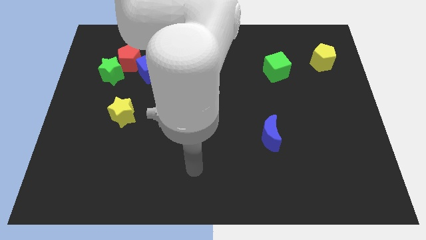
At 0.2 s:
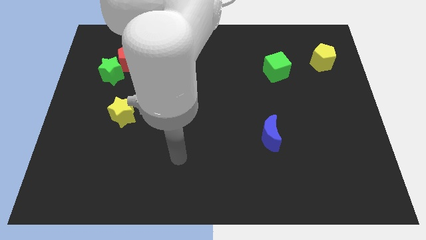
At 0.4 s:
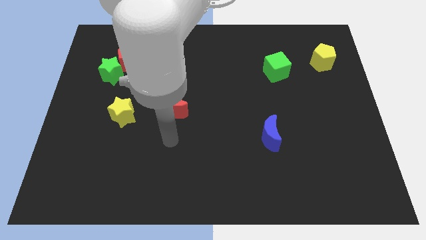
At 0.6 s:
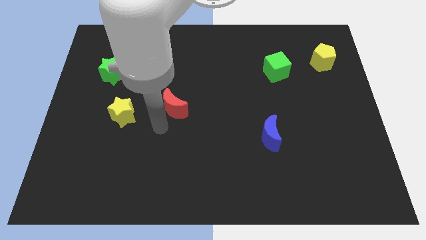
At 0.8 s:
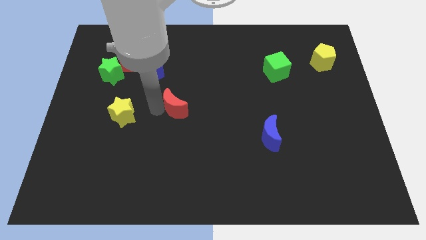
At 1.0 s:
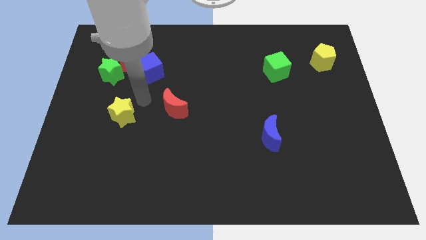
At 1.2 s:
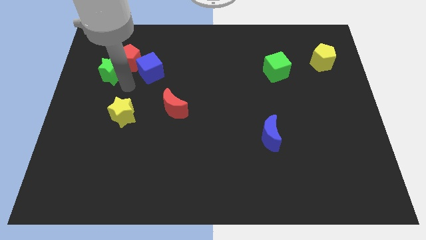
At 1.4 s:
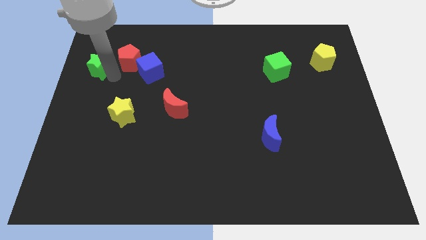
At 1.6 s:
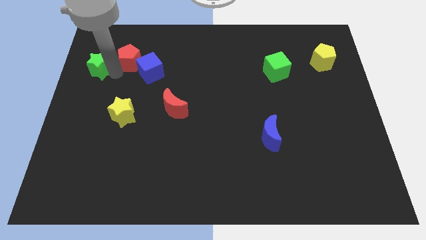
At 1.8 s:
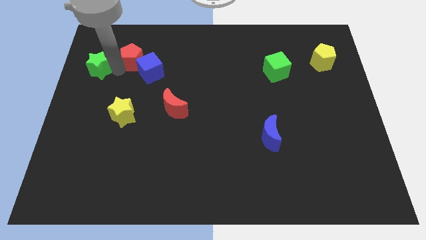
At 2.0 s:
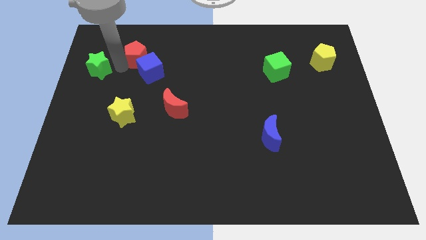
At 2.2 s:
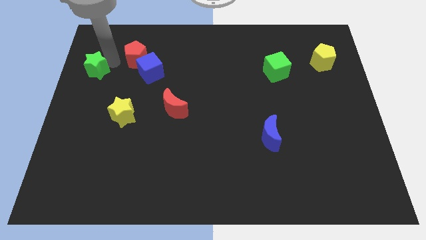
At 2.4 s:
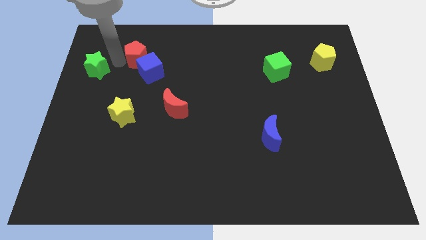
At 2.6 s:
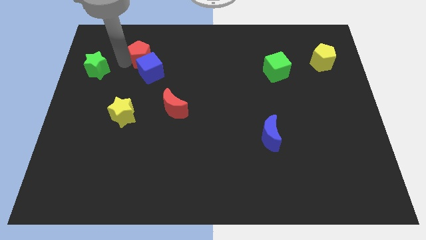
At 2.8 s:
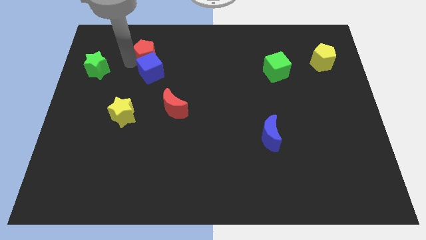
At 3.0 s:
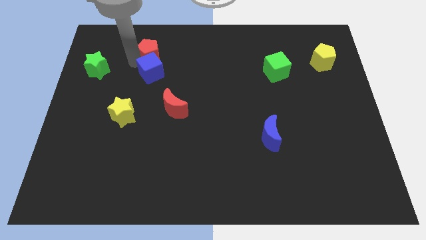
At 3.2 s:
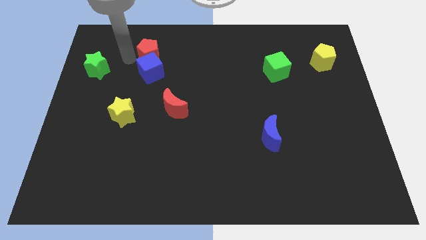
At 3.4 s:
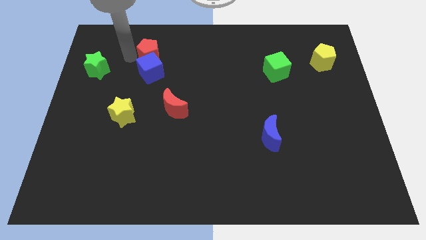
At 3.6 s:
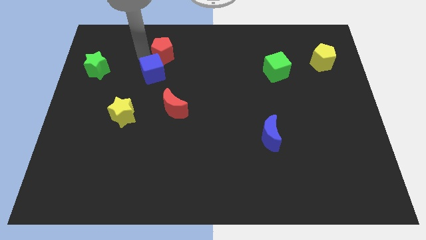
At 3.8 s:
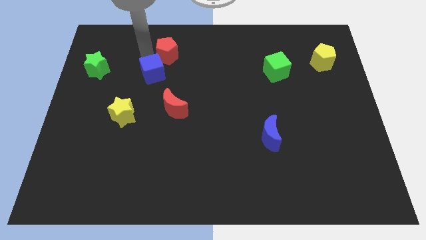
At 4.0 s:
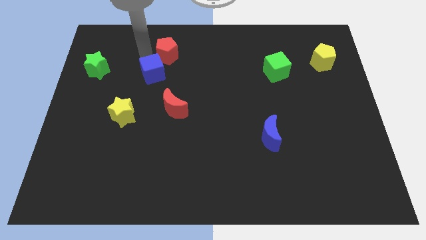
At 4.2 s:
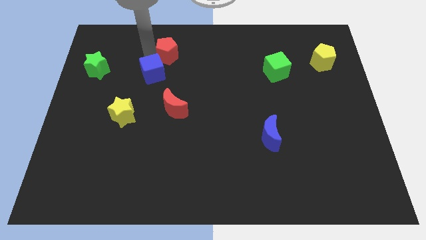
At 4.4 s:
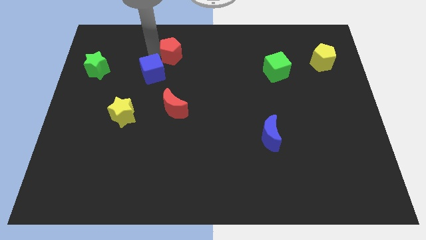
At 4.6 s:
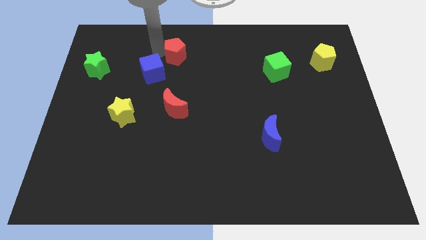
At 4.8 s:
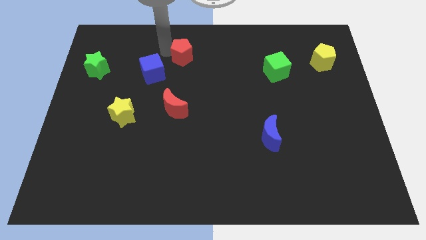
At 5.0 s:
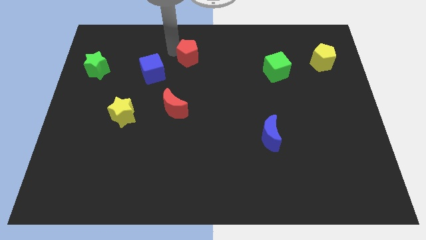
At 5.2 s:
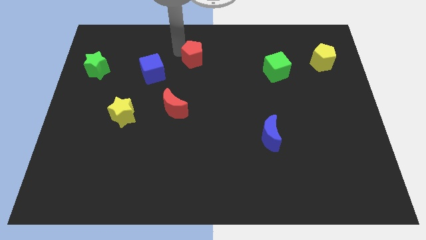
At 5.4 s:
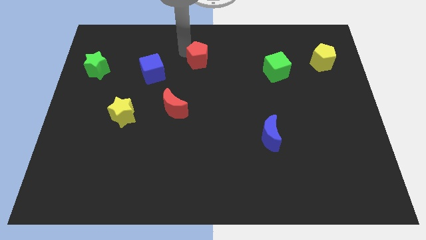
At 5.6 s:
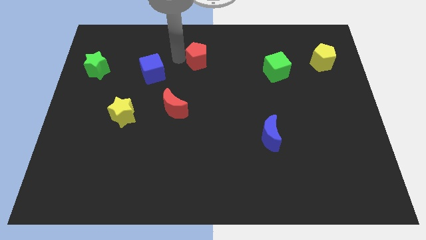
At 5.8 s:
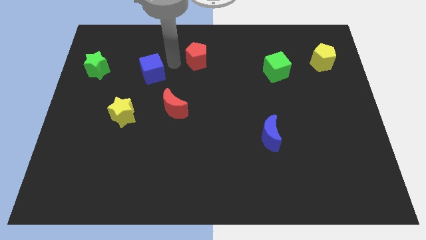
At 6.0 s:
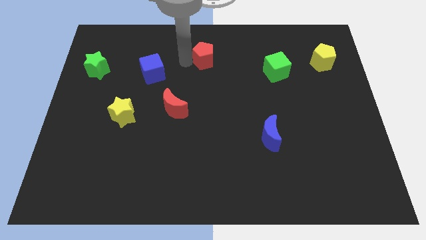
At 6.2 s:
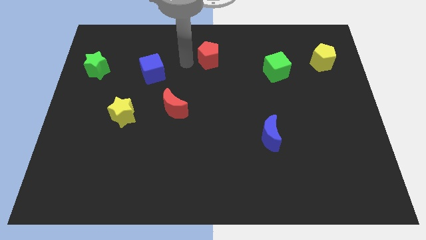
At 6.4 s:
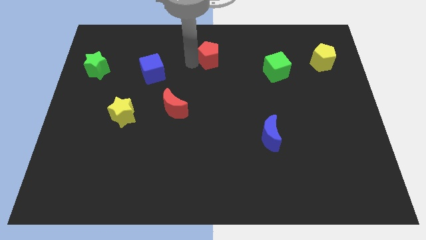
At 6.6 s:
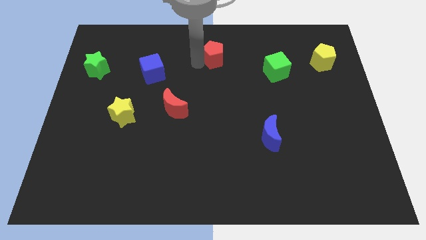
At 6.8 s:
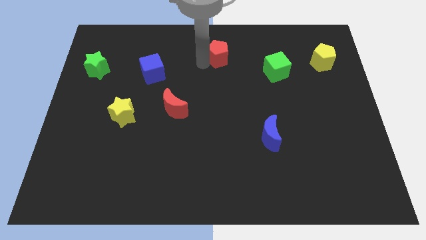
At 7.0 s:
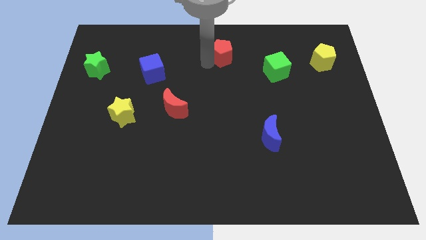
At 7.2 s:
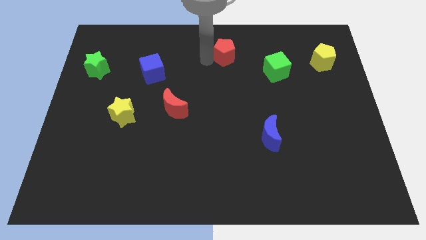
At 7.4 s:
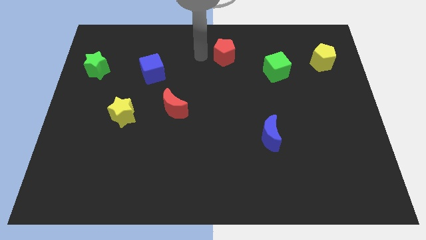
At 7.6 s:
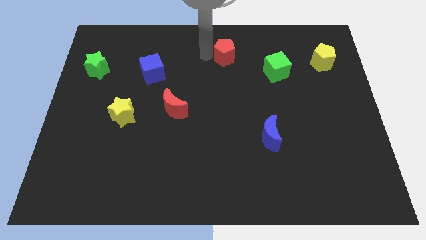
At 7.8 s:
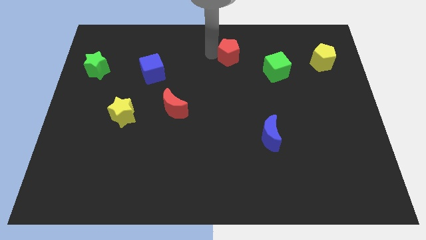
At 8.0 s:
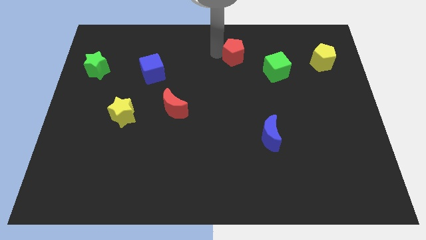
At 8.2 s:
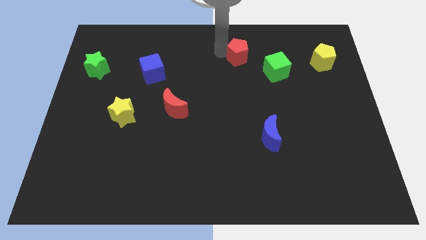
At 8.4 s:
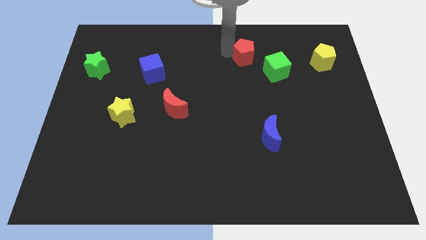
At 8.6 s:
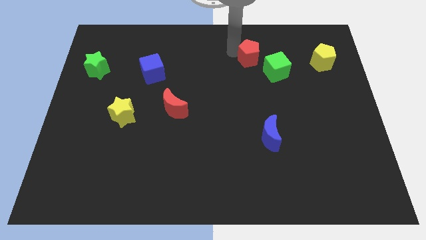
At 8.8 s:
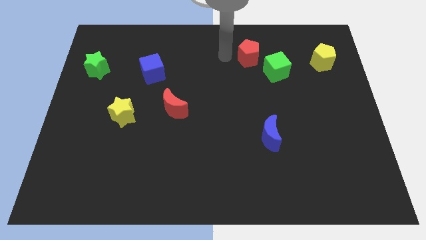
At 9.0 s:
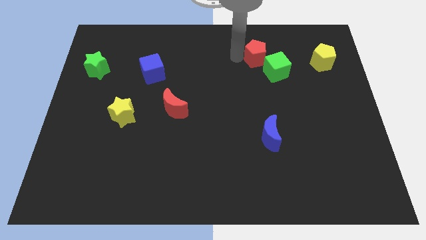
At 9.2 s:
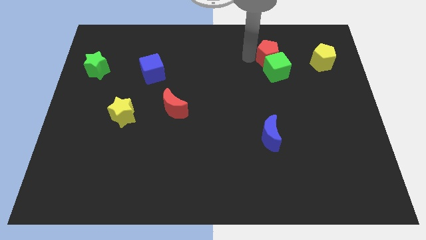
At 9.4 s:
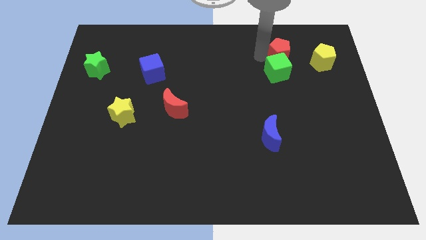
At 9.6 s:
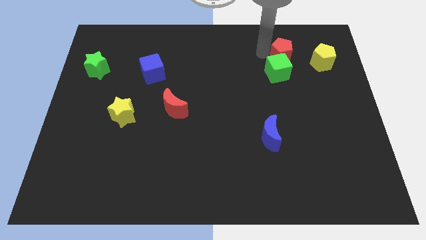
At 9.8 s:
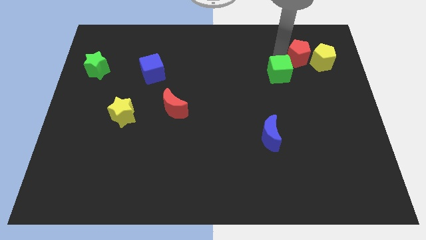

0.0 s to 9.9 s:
move the red pentagon next to the yellow pentagon

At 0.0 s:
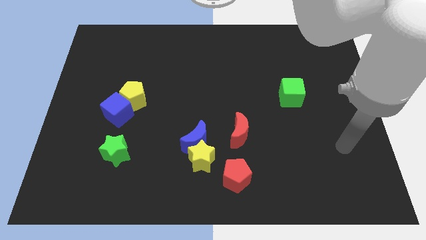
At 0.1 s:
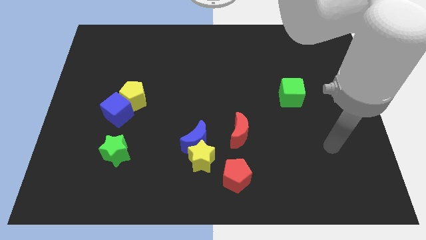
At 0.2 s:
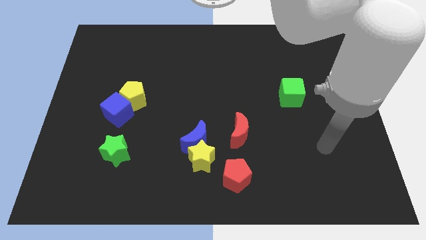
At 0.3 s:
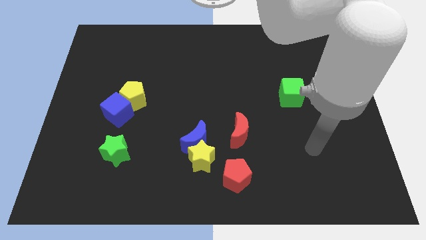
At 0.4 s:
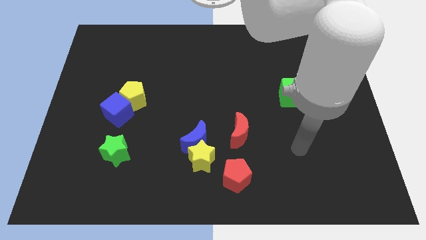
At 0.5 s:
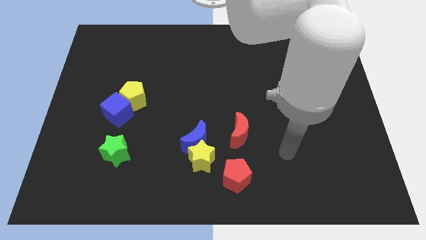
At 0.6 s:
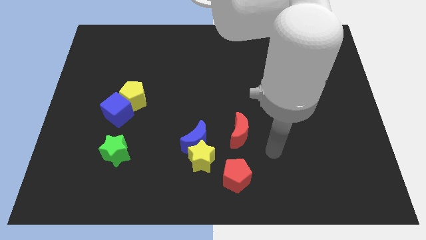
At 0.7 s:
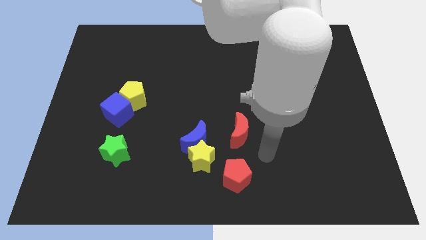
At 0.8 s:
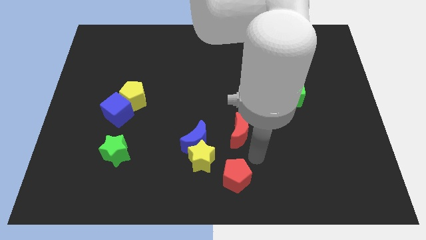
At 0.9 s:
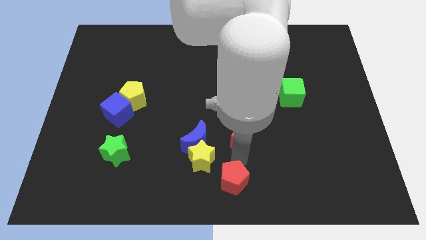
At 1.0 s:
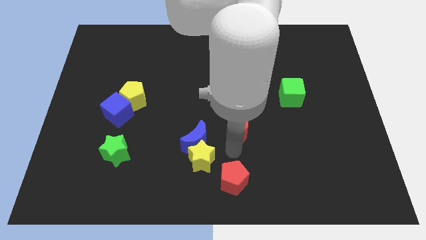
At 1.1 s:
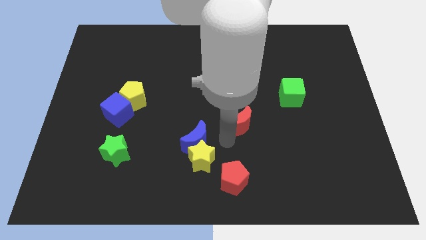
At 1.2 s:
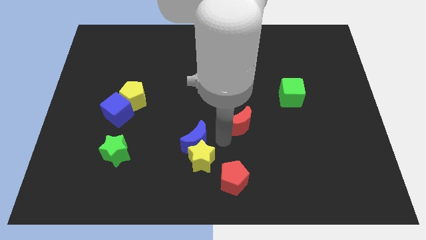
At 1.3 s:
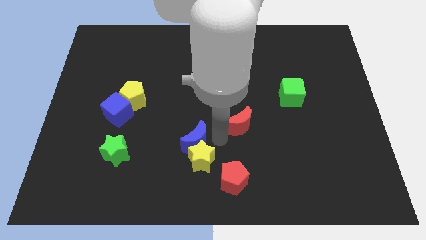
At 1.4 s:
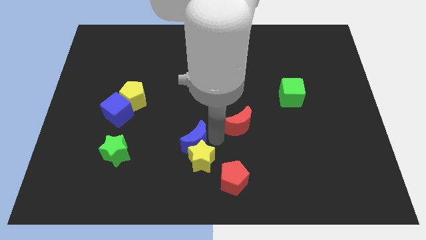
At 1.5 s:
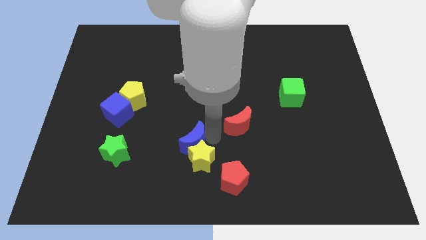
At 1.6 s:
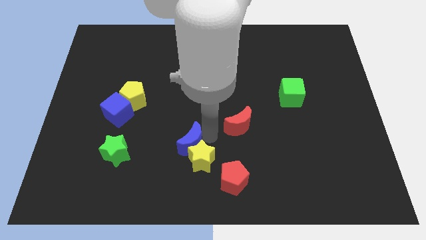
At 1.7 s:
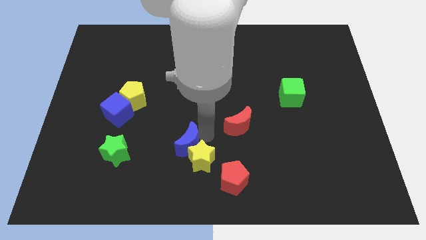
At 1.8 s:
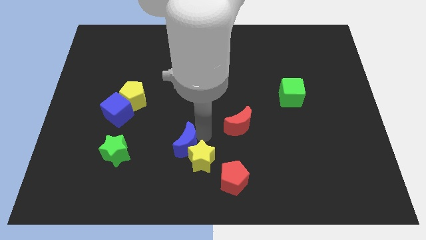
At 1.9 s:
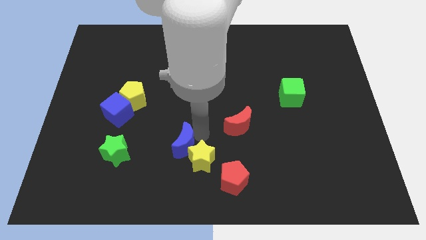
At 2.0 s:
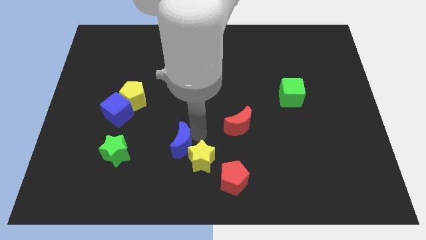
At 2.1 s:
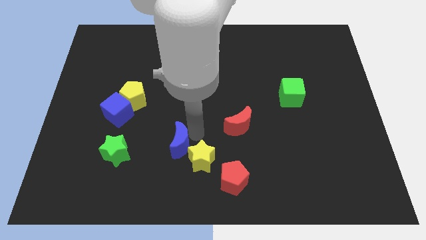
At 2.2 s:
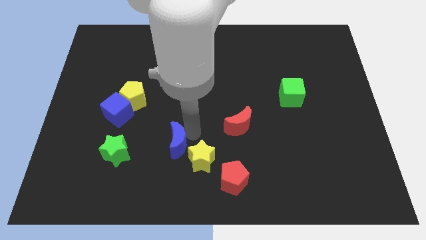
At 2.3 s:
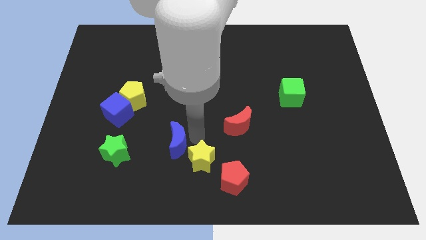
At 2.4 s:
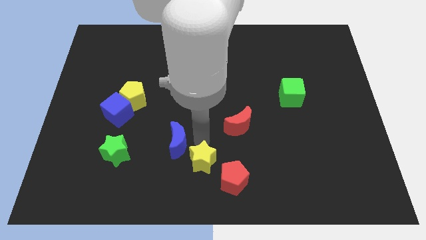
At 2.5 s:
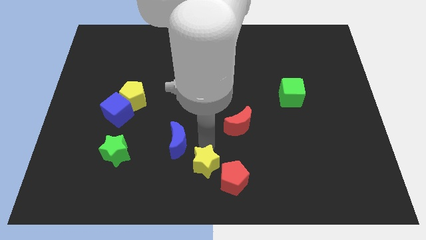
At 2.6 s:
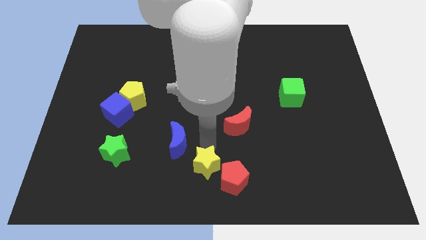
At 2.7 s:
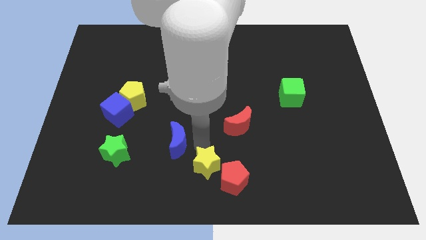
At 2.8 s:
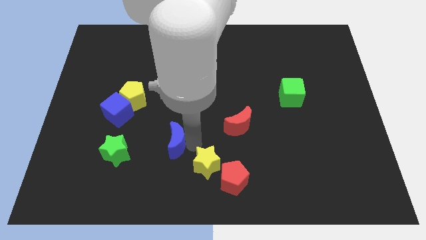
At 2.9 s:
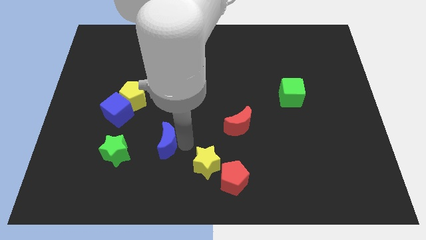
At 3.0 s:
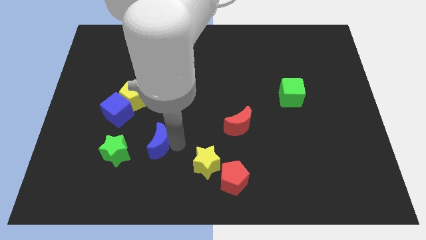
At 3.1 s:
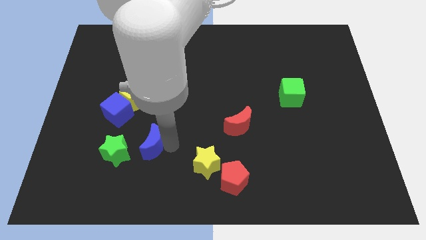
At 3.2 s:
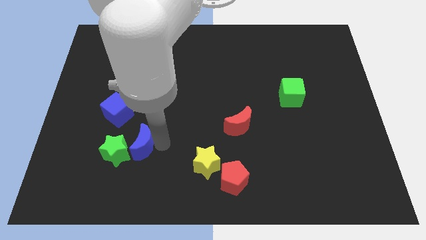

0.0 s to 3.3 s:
move the blue moon next to the green star
